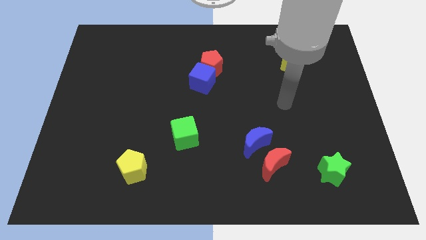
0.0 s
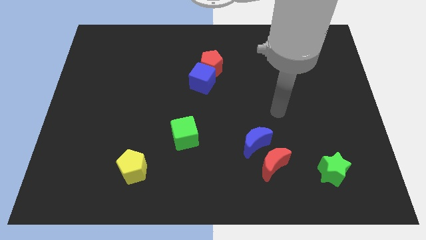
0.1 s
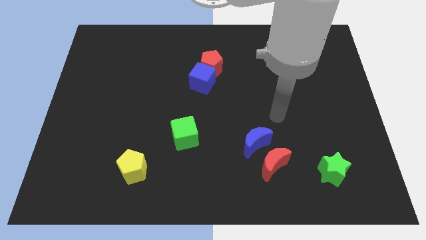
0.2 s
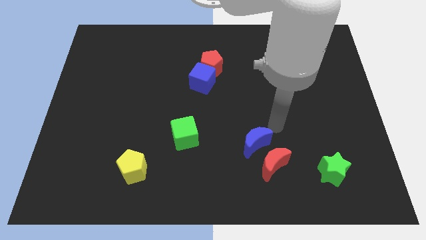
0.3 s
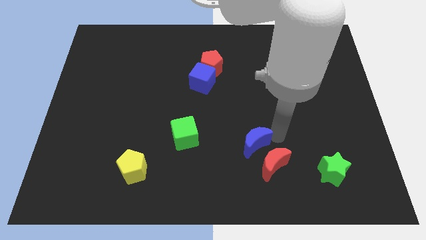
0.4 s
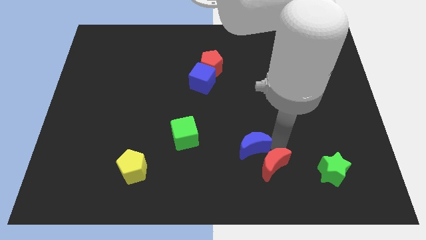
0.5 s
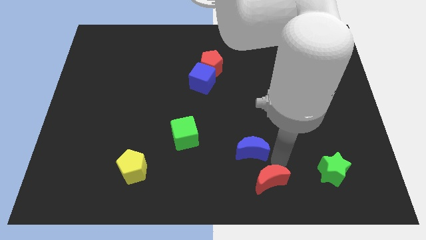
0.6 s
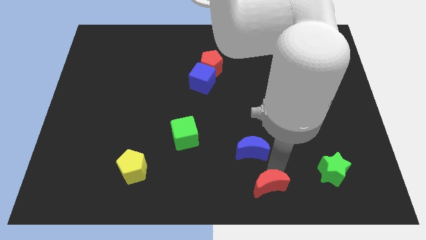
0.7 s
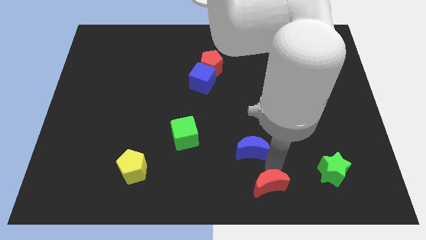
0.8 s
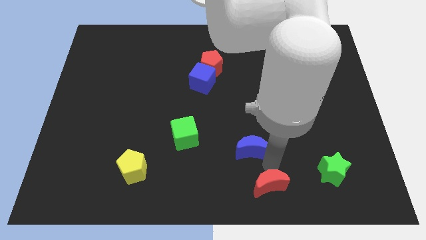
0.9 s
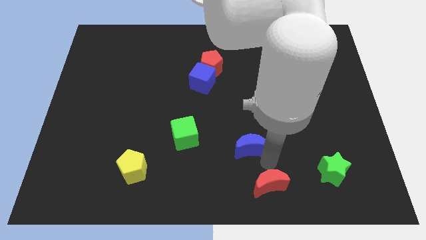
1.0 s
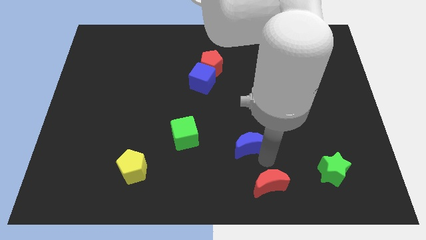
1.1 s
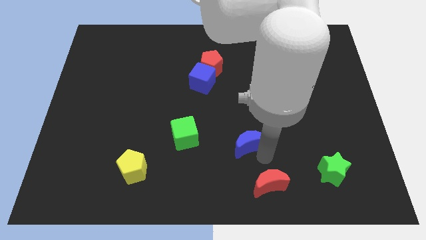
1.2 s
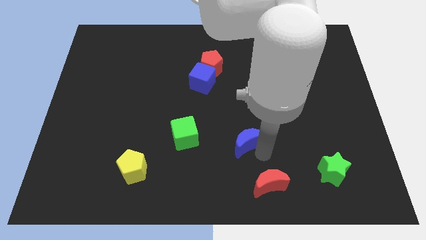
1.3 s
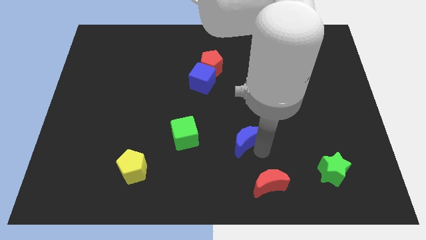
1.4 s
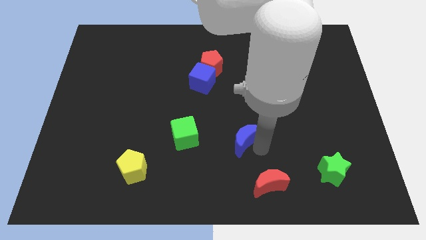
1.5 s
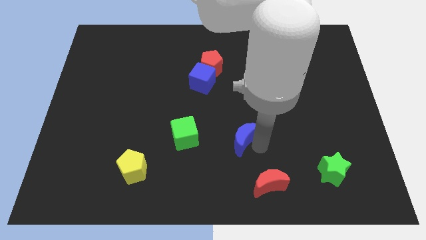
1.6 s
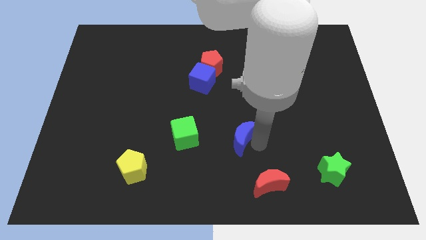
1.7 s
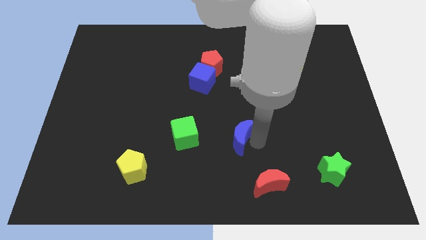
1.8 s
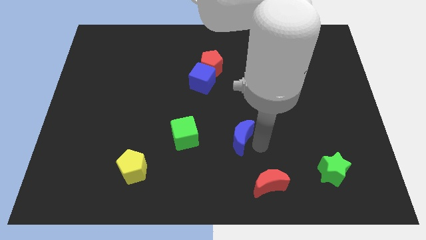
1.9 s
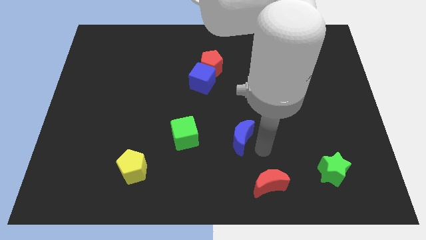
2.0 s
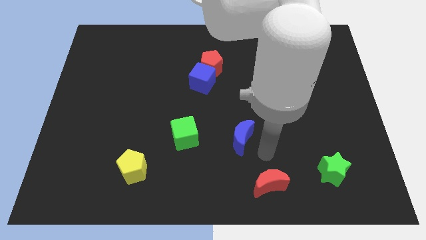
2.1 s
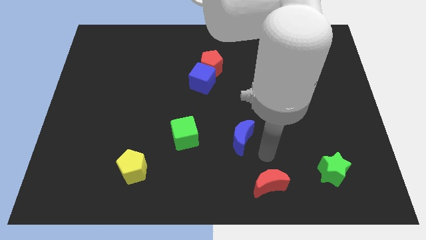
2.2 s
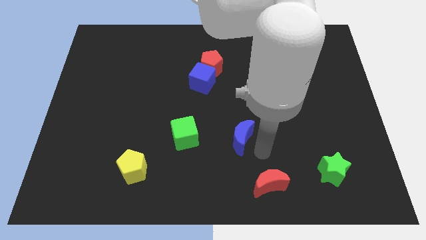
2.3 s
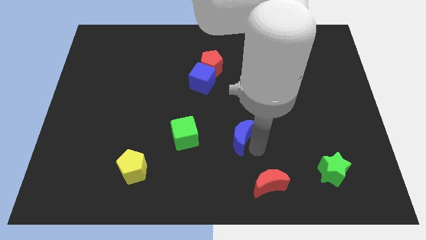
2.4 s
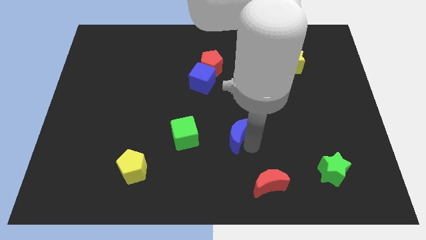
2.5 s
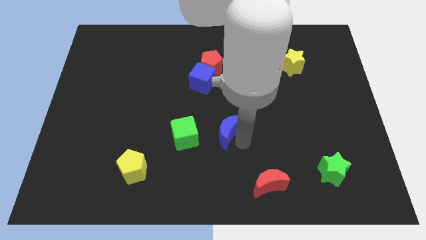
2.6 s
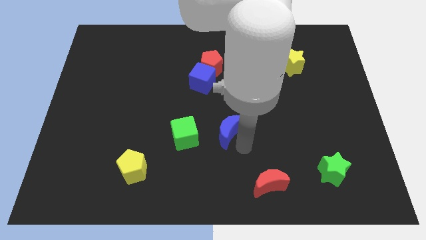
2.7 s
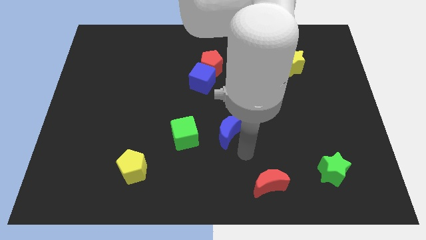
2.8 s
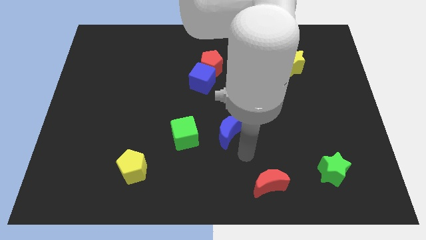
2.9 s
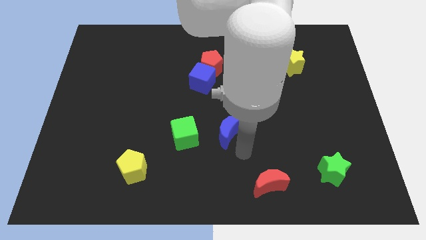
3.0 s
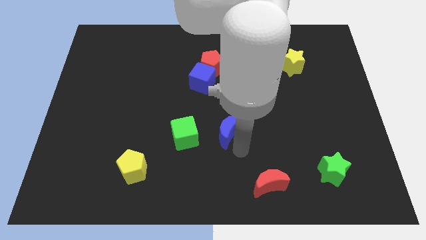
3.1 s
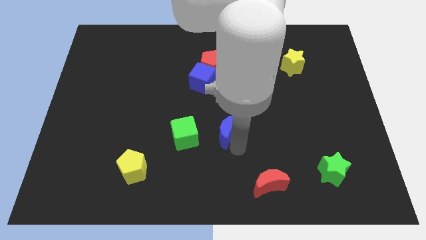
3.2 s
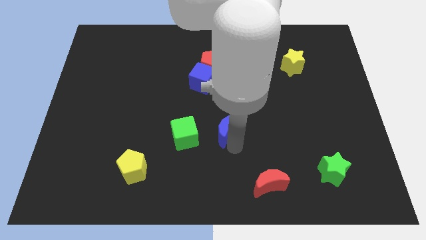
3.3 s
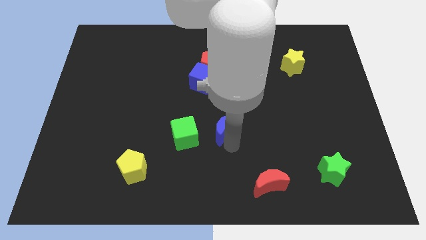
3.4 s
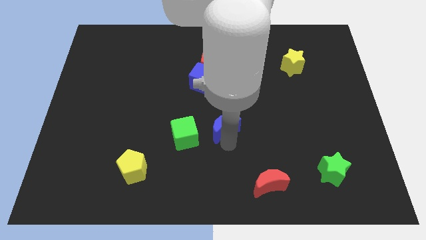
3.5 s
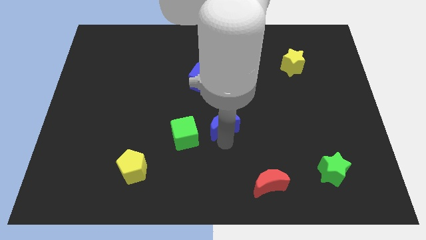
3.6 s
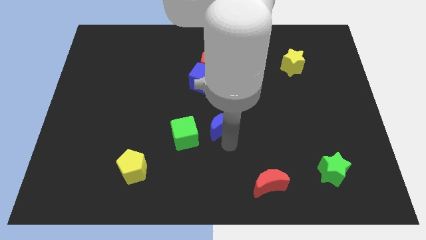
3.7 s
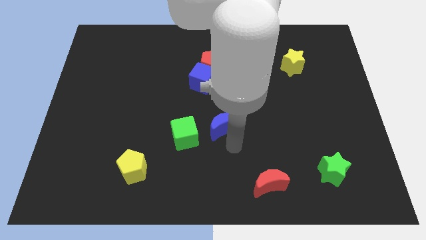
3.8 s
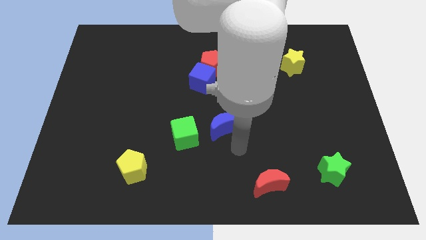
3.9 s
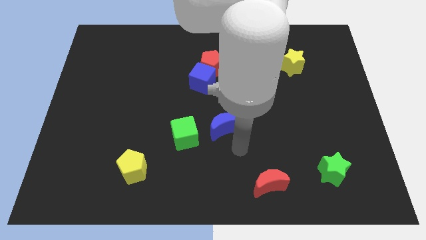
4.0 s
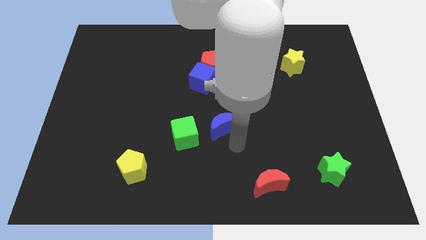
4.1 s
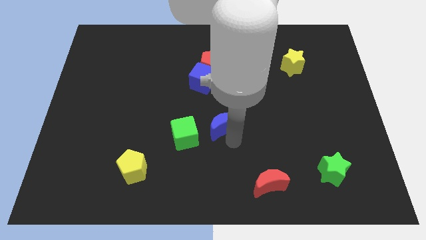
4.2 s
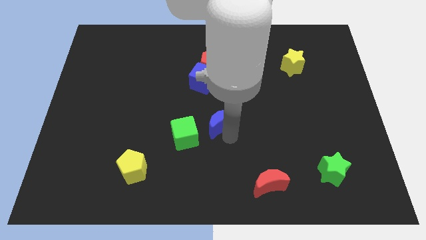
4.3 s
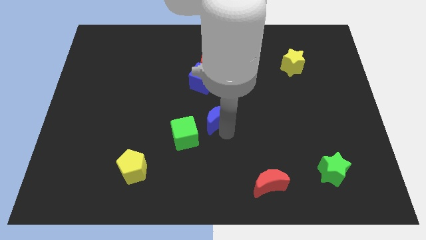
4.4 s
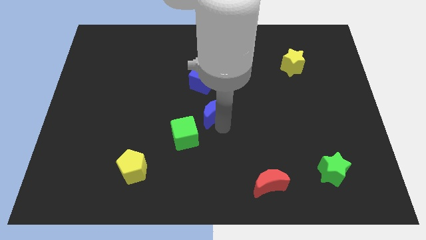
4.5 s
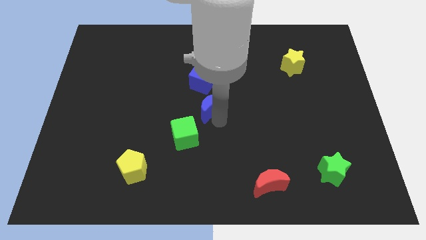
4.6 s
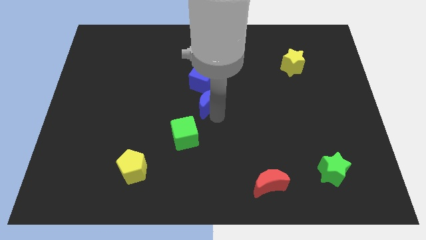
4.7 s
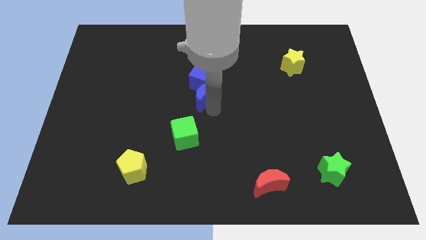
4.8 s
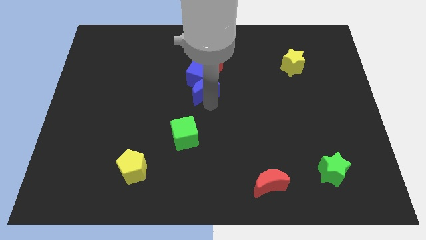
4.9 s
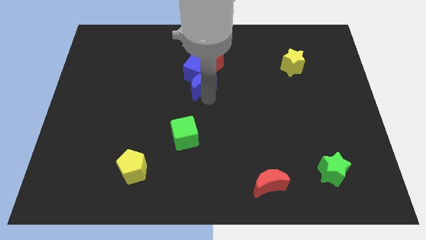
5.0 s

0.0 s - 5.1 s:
move the blue moon diagonally down and to the left of the red pentagon

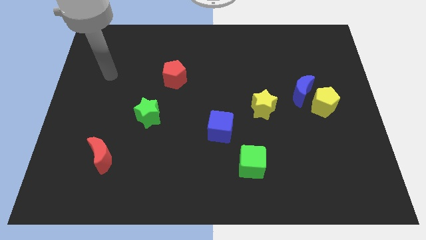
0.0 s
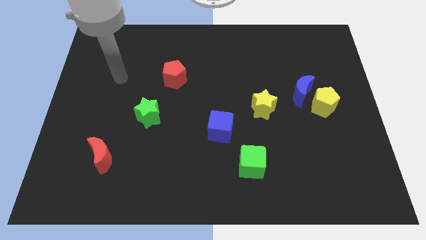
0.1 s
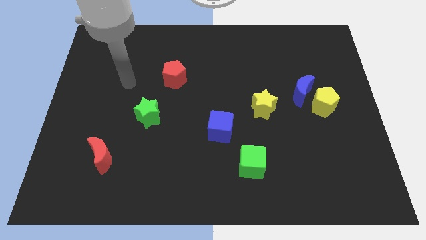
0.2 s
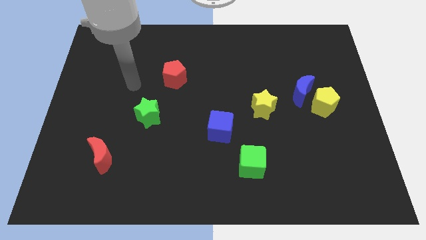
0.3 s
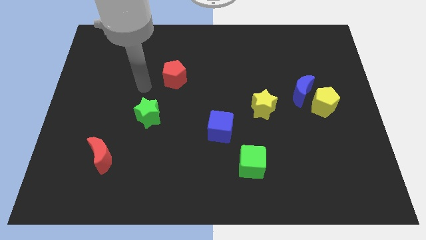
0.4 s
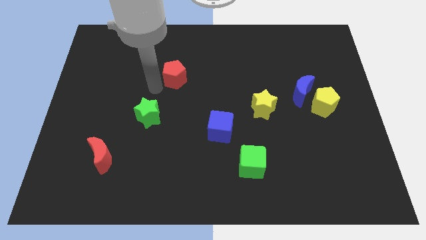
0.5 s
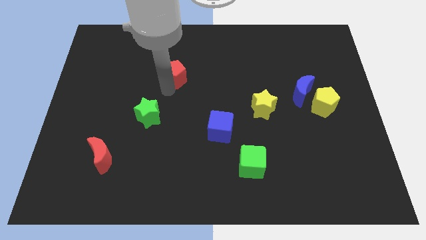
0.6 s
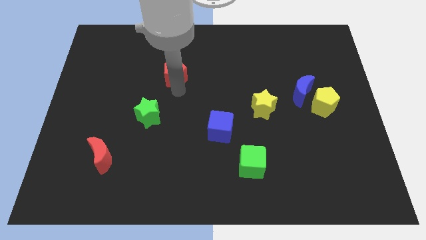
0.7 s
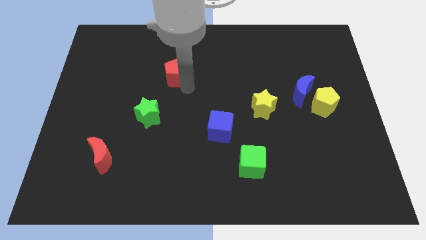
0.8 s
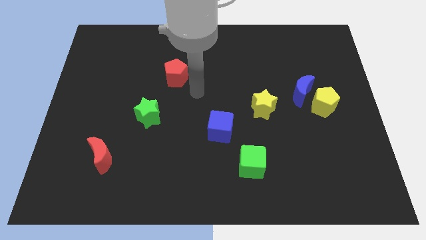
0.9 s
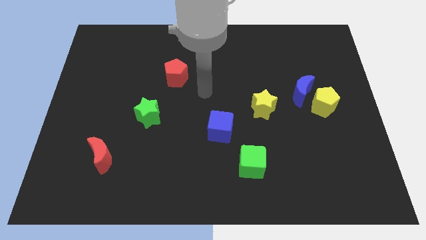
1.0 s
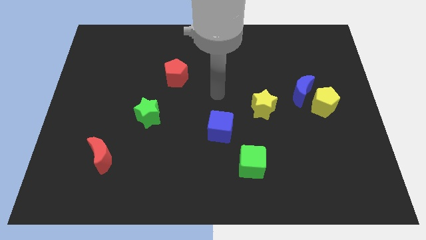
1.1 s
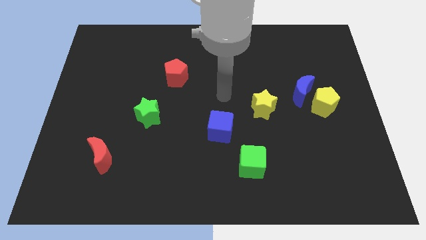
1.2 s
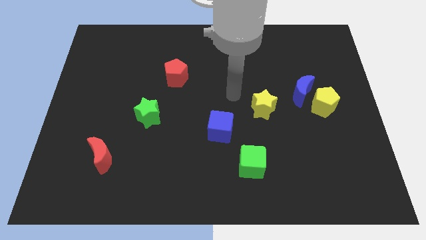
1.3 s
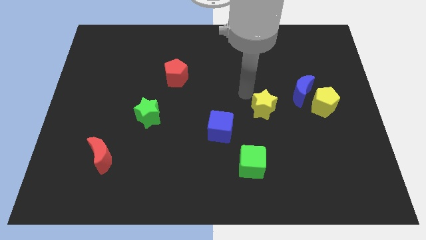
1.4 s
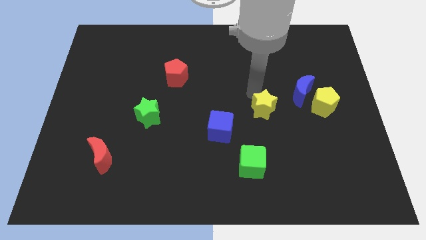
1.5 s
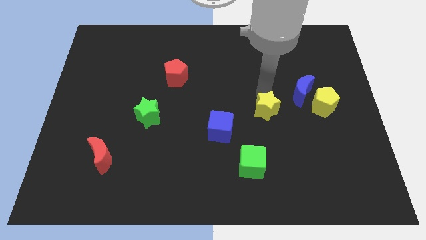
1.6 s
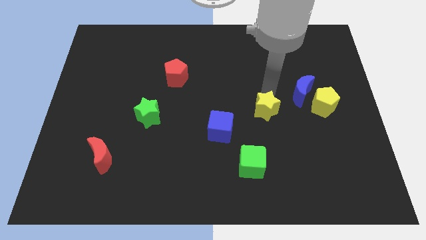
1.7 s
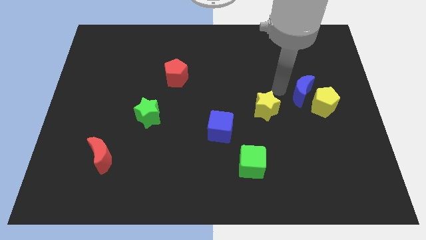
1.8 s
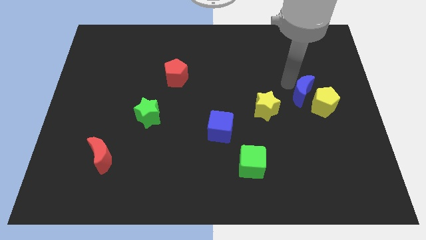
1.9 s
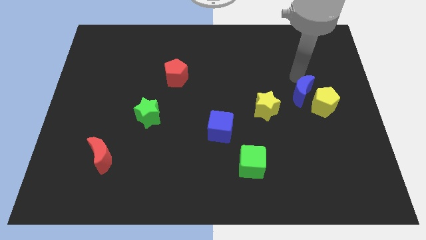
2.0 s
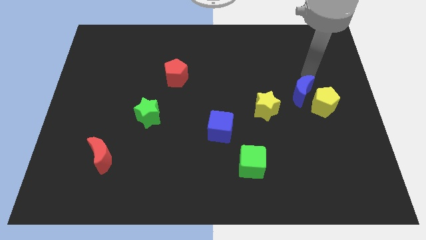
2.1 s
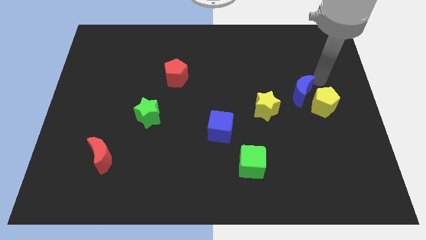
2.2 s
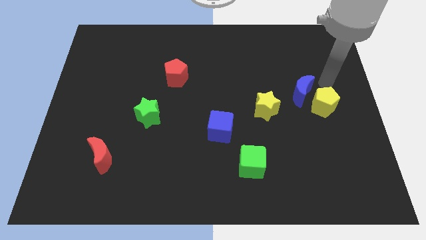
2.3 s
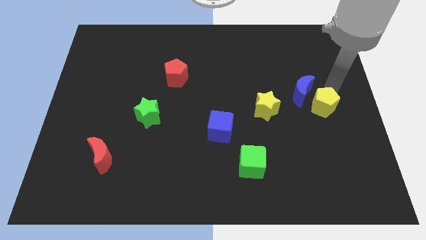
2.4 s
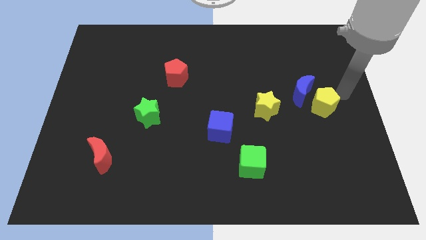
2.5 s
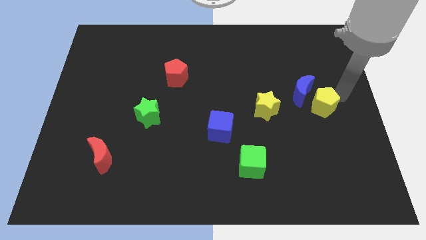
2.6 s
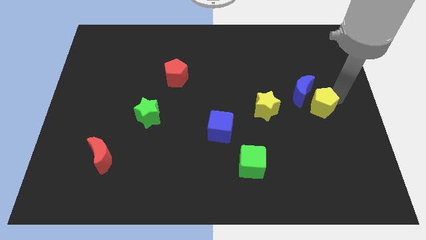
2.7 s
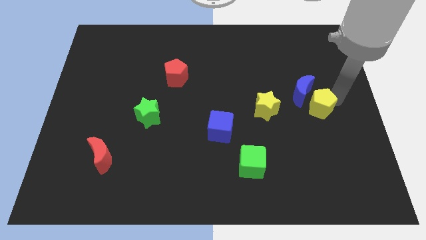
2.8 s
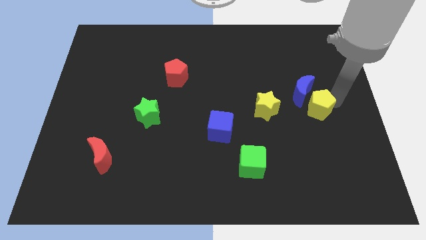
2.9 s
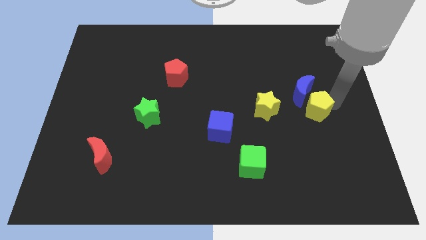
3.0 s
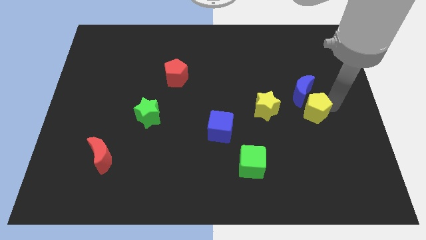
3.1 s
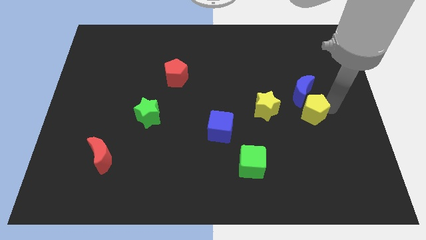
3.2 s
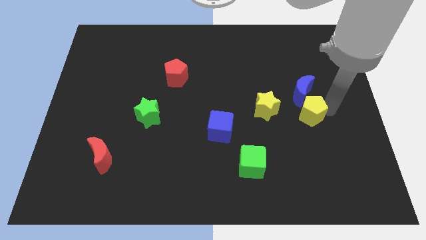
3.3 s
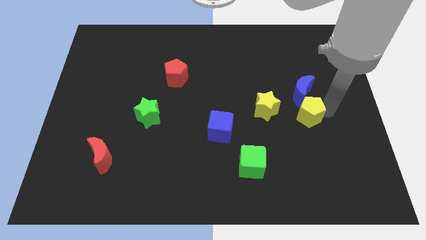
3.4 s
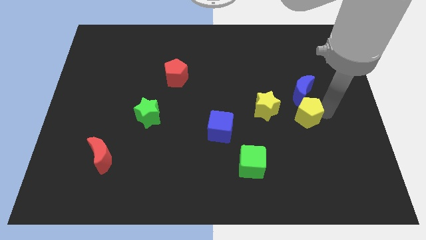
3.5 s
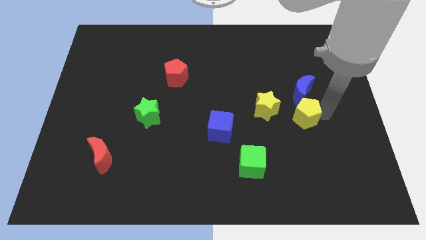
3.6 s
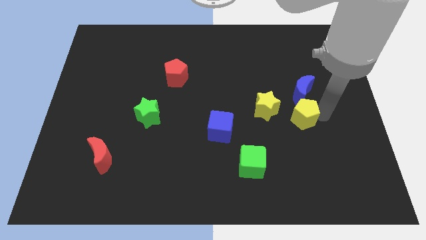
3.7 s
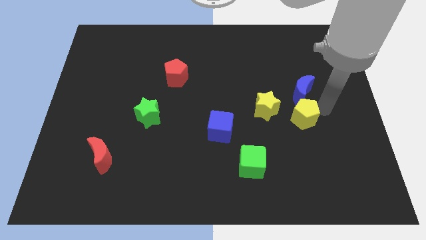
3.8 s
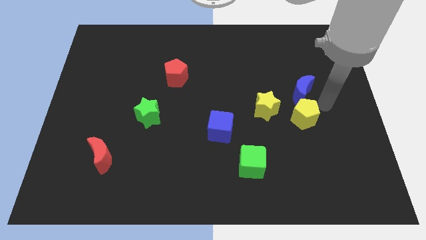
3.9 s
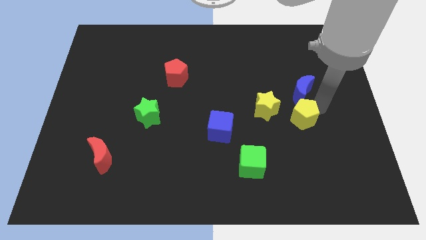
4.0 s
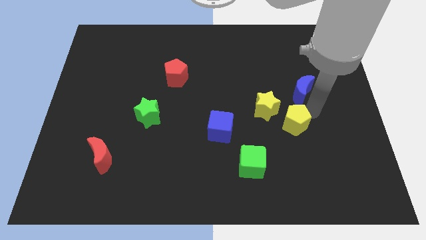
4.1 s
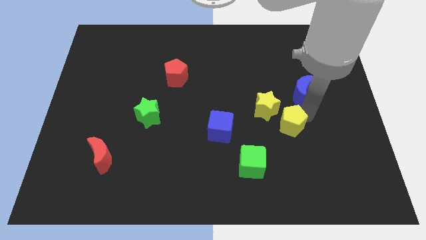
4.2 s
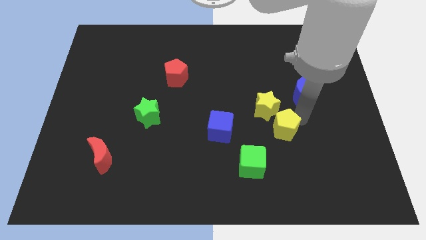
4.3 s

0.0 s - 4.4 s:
put the yellow pentagon to the bottom of the yellow star
